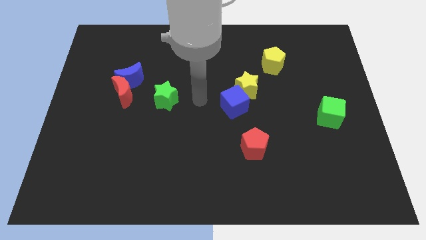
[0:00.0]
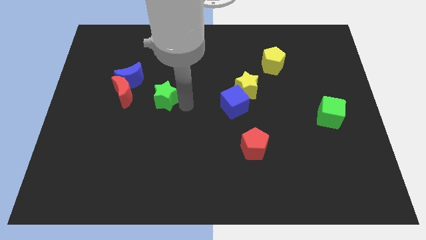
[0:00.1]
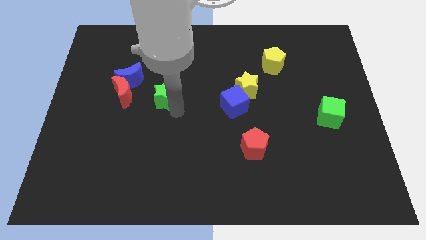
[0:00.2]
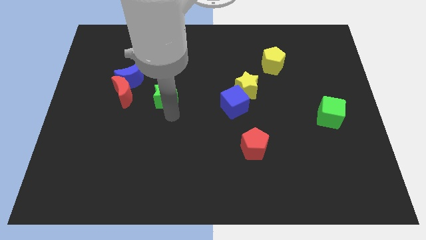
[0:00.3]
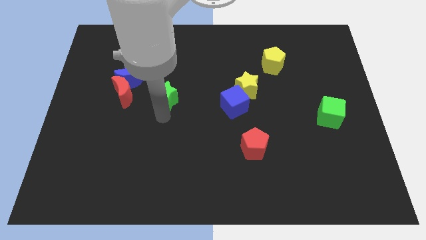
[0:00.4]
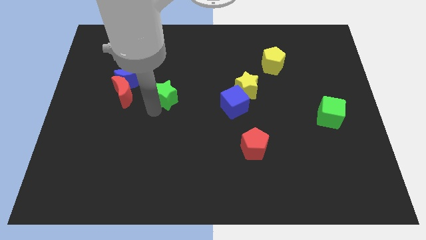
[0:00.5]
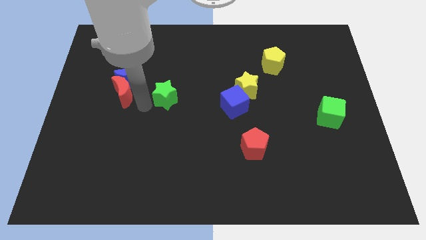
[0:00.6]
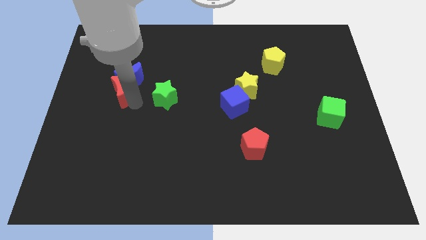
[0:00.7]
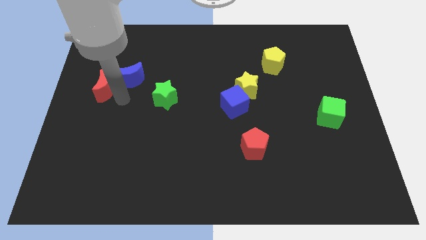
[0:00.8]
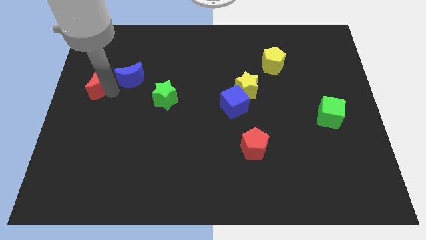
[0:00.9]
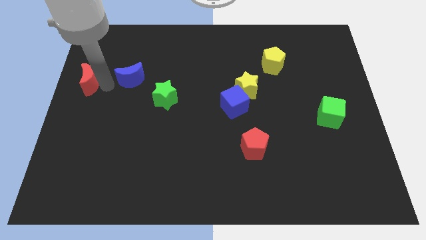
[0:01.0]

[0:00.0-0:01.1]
pull the blue moon apart from the red moon

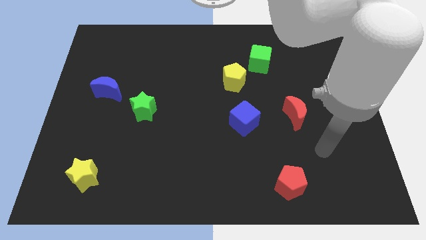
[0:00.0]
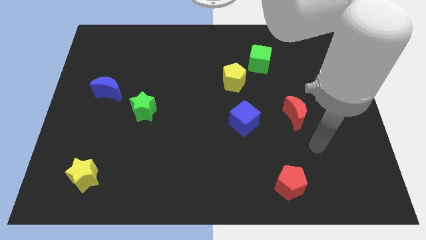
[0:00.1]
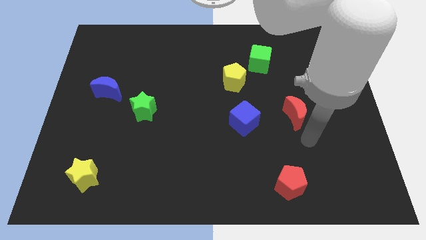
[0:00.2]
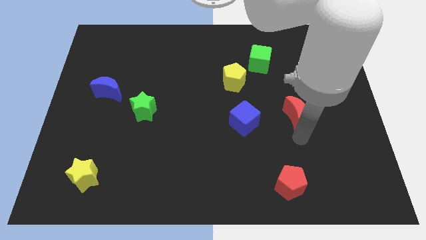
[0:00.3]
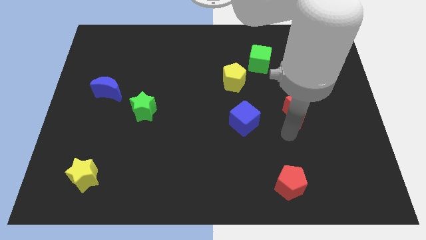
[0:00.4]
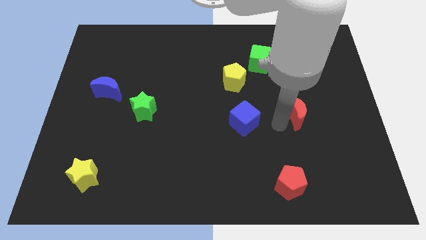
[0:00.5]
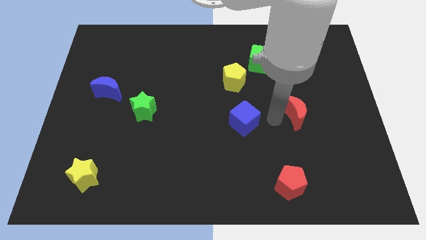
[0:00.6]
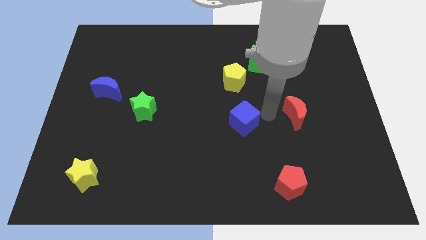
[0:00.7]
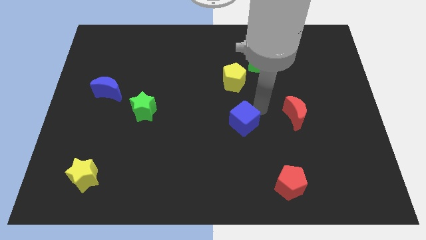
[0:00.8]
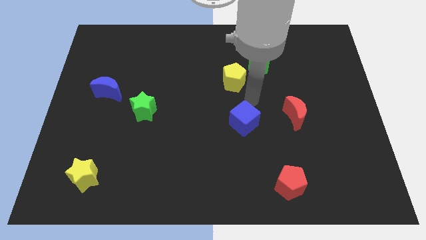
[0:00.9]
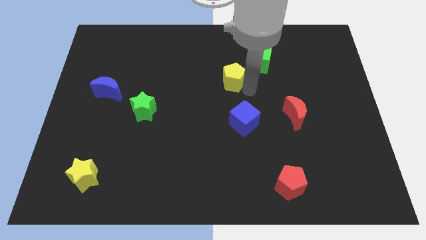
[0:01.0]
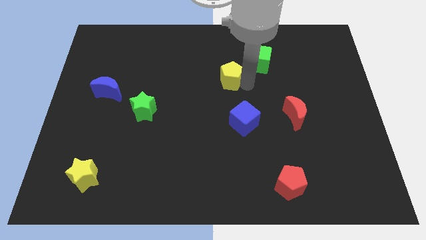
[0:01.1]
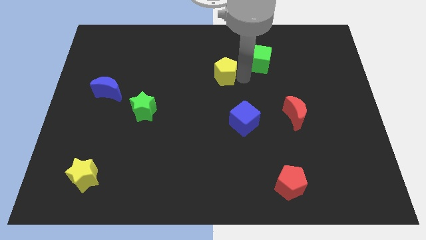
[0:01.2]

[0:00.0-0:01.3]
move the green cube away from the yellow pentagon

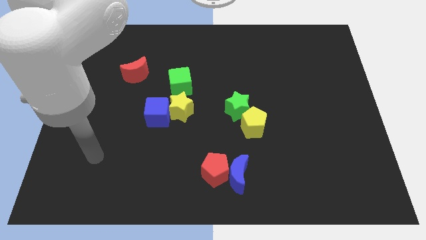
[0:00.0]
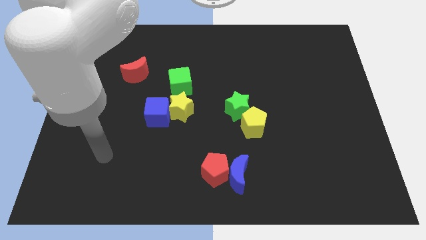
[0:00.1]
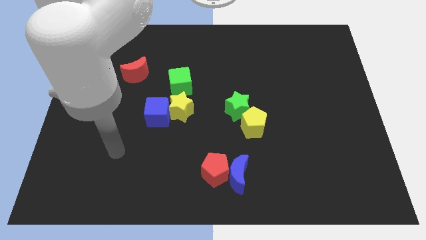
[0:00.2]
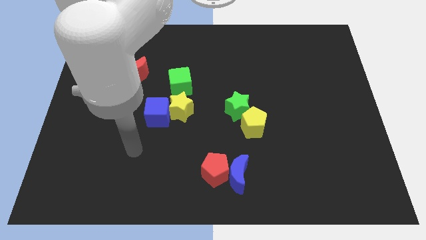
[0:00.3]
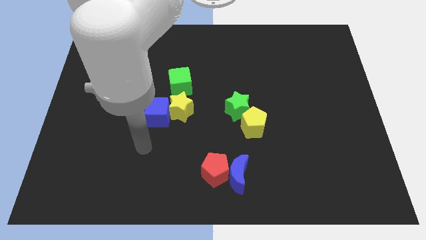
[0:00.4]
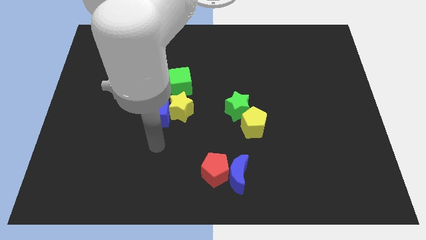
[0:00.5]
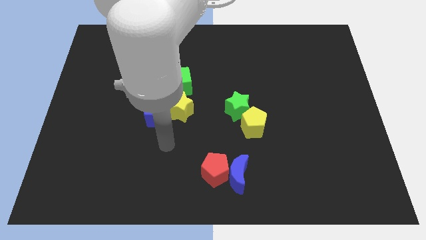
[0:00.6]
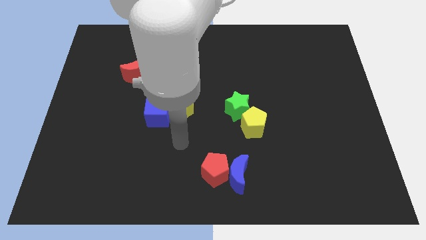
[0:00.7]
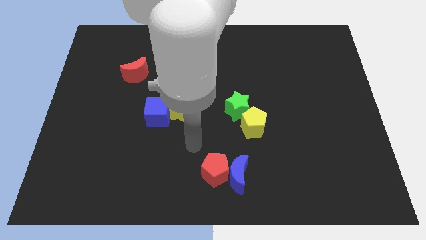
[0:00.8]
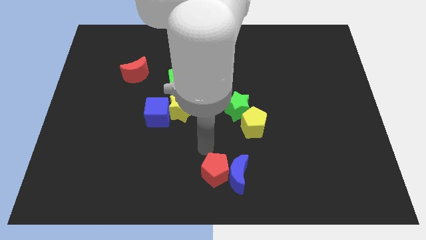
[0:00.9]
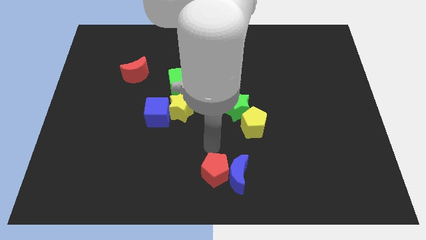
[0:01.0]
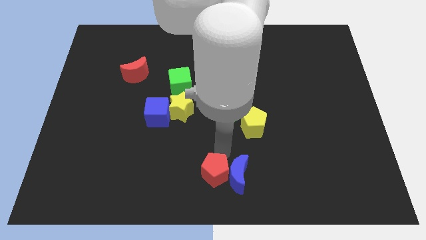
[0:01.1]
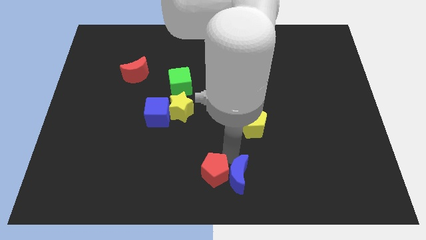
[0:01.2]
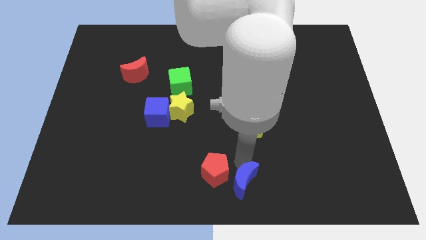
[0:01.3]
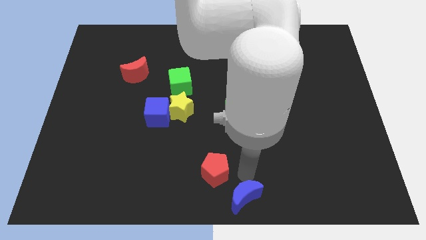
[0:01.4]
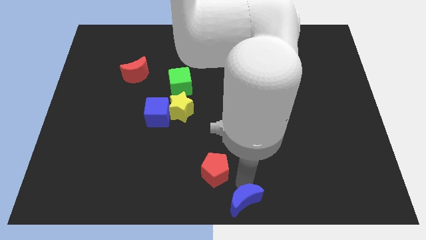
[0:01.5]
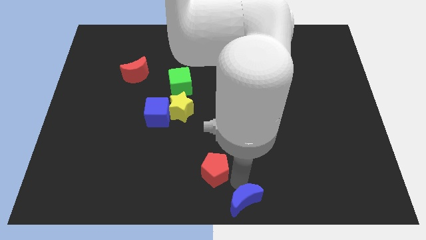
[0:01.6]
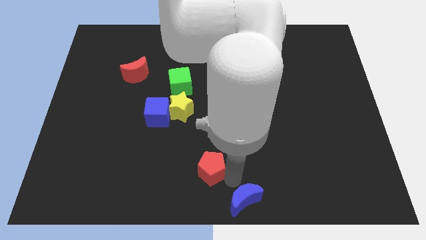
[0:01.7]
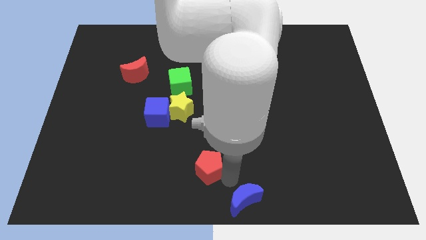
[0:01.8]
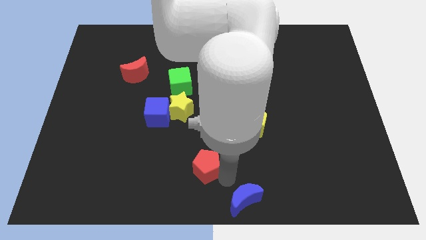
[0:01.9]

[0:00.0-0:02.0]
separate the red pentagon from the blue moon

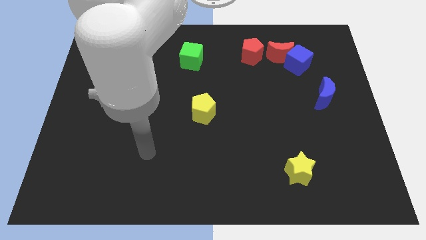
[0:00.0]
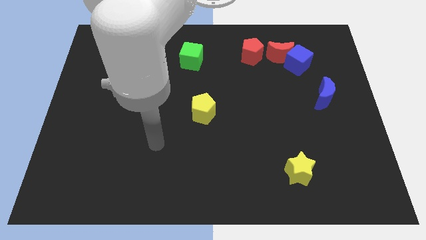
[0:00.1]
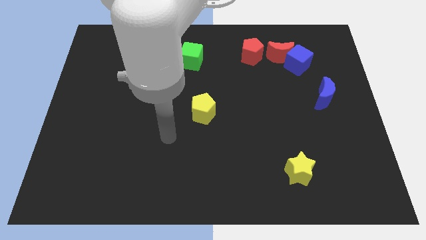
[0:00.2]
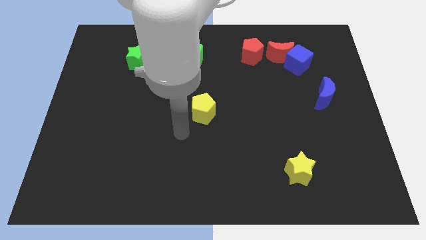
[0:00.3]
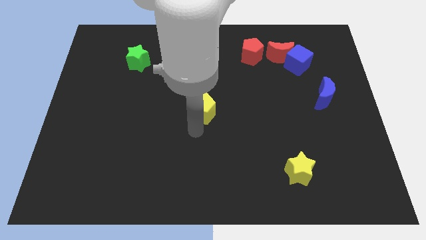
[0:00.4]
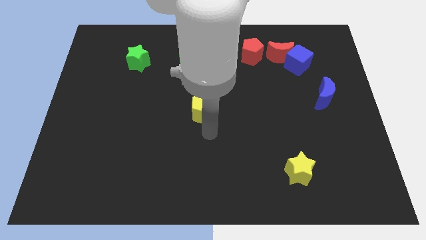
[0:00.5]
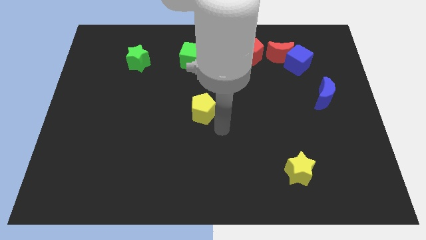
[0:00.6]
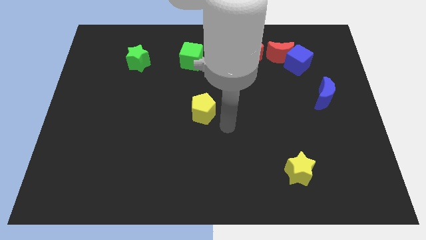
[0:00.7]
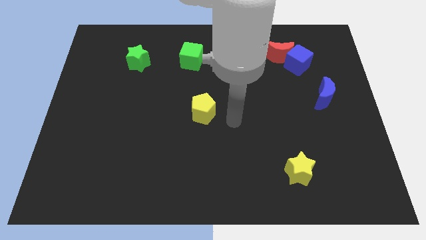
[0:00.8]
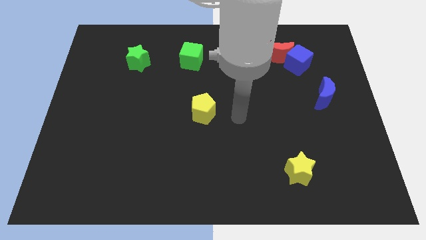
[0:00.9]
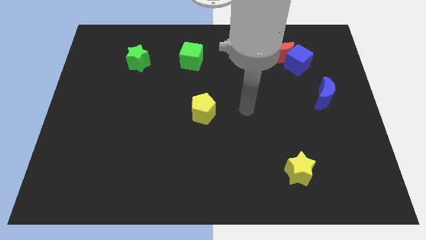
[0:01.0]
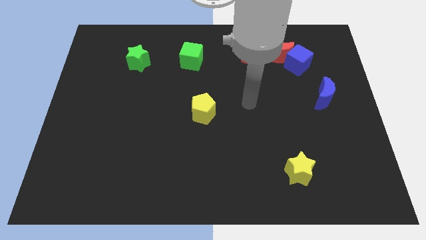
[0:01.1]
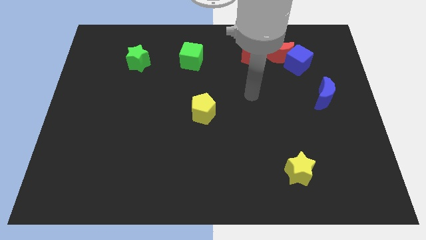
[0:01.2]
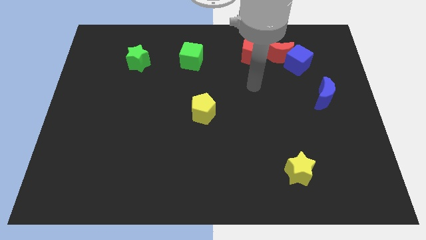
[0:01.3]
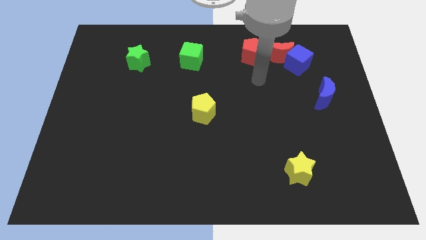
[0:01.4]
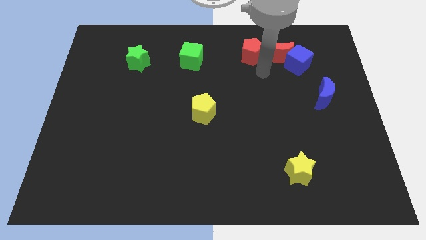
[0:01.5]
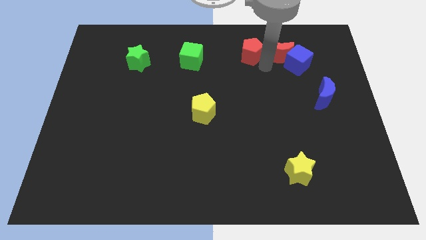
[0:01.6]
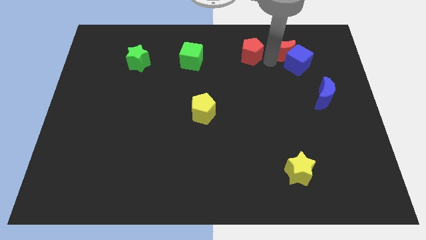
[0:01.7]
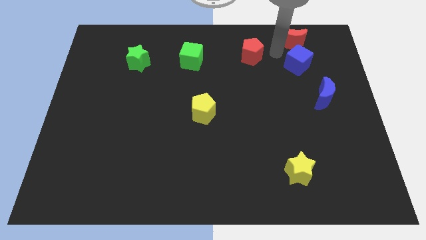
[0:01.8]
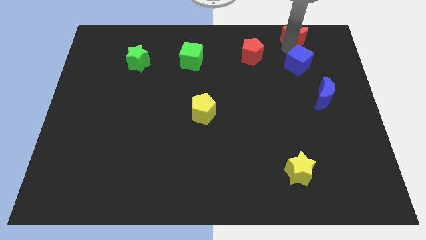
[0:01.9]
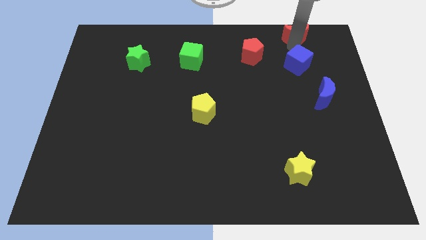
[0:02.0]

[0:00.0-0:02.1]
move the blue cube away from the red moon

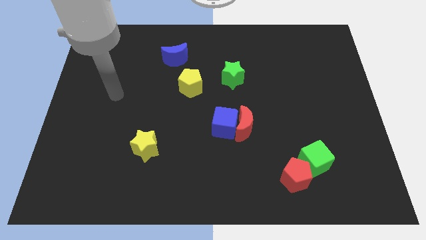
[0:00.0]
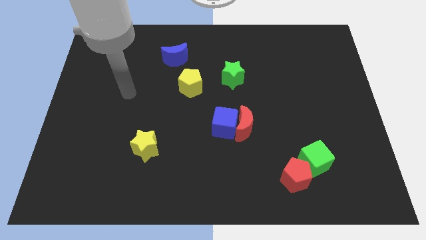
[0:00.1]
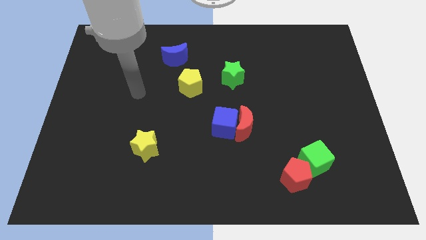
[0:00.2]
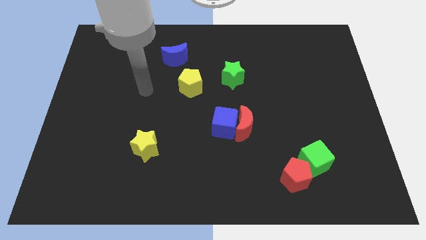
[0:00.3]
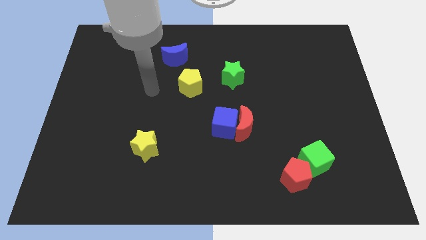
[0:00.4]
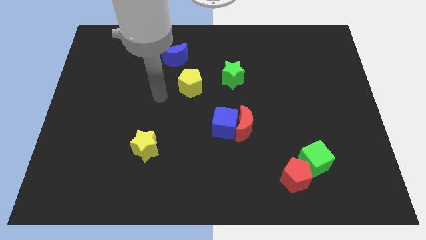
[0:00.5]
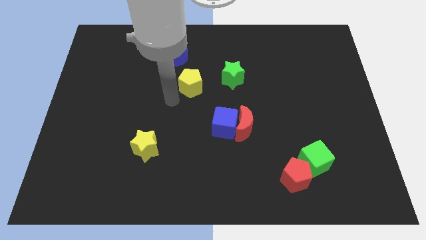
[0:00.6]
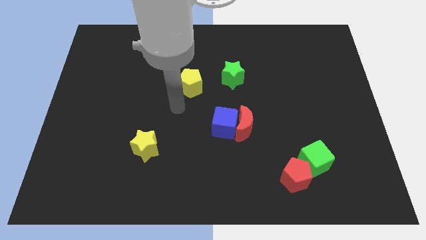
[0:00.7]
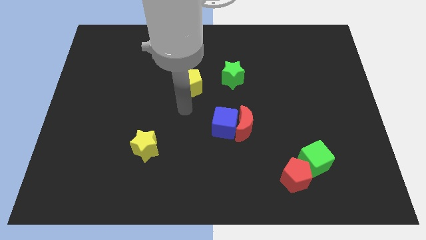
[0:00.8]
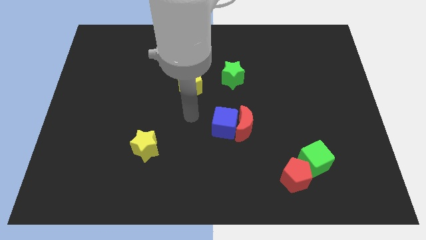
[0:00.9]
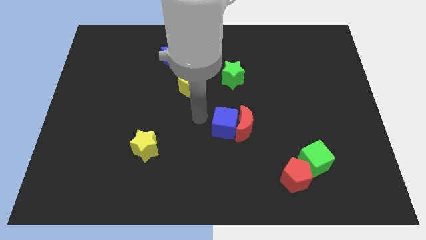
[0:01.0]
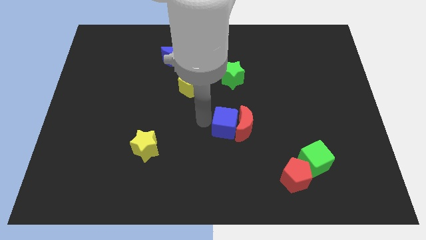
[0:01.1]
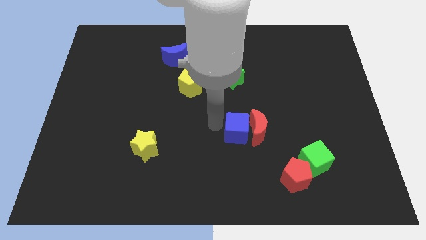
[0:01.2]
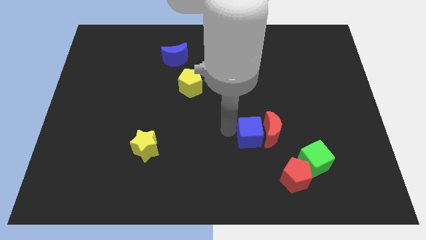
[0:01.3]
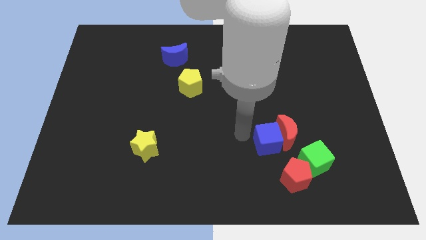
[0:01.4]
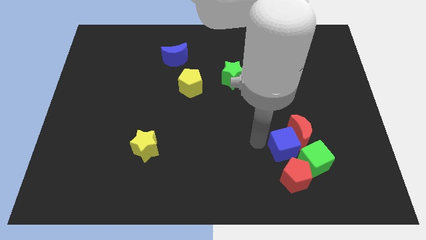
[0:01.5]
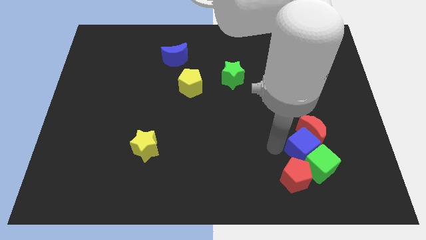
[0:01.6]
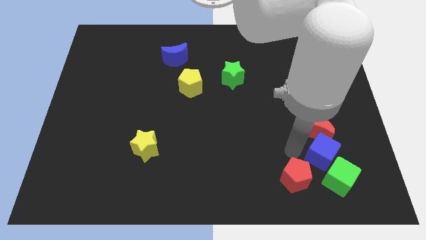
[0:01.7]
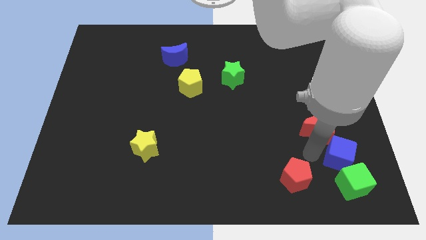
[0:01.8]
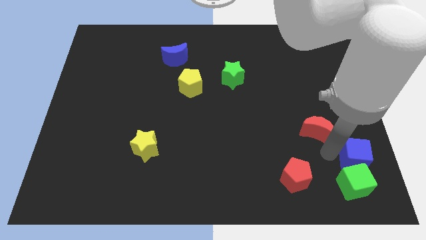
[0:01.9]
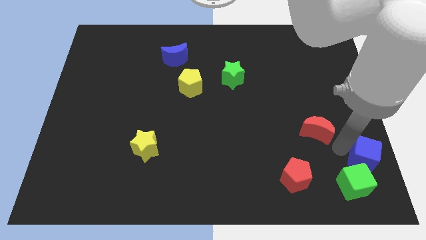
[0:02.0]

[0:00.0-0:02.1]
separate the red moon from the blue cube

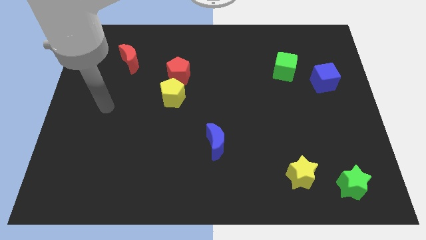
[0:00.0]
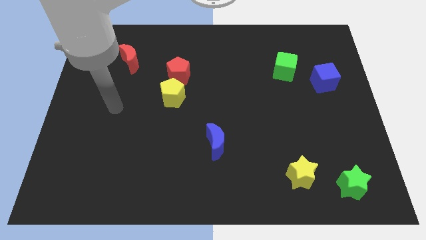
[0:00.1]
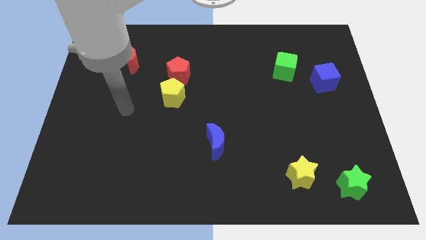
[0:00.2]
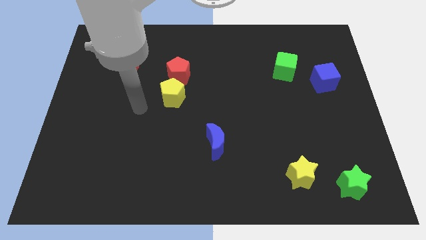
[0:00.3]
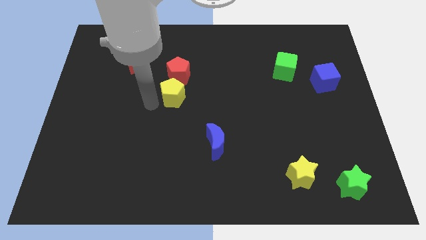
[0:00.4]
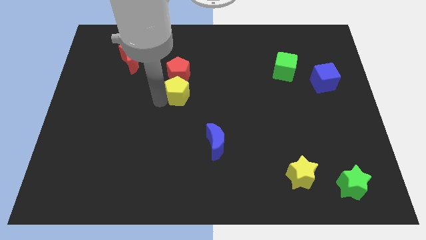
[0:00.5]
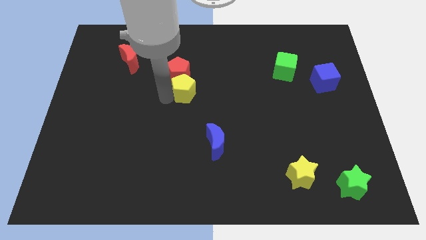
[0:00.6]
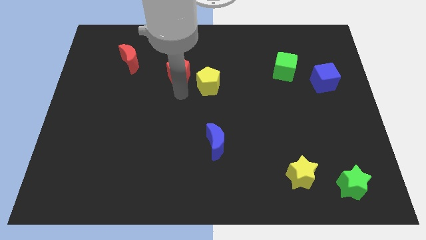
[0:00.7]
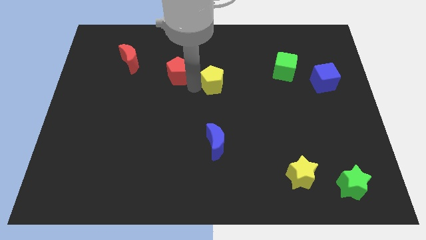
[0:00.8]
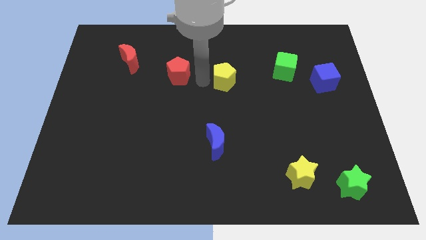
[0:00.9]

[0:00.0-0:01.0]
move the red pentagon away from the yellow pentagon
